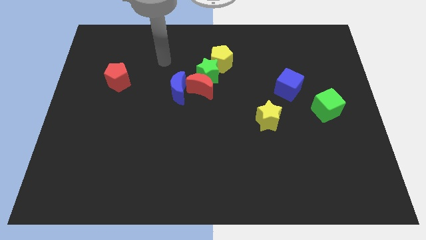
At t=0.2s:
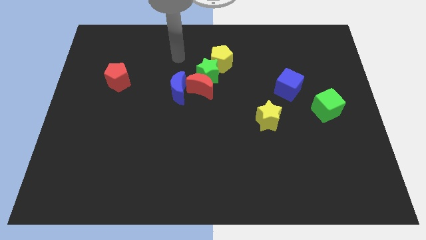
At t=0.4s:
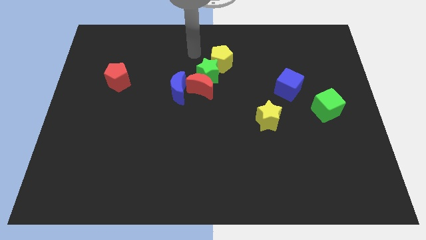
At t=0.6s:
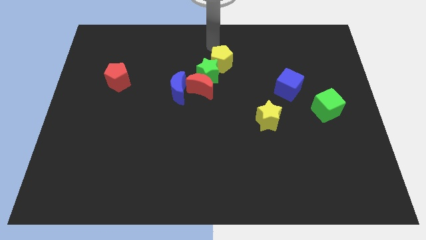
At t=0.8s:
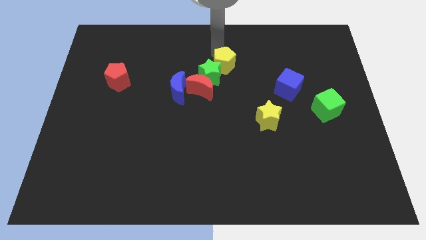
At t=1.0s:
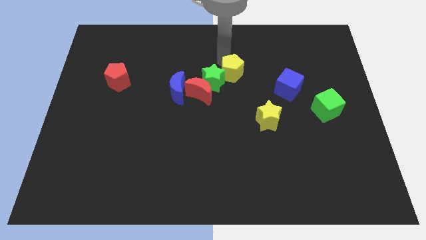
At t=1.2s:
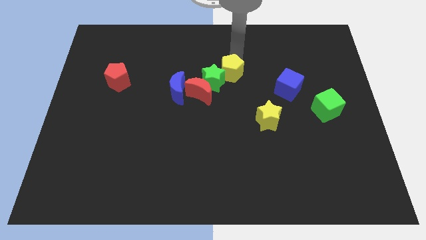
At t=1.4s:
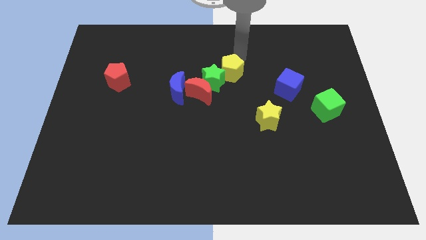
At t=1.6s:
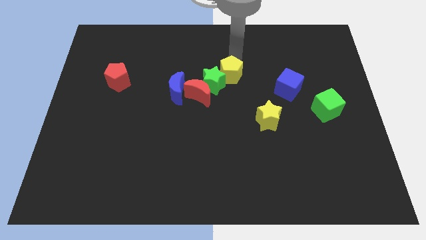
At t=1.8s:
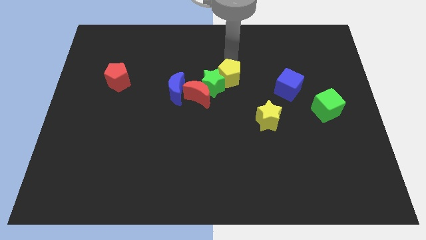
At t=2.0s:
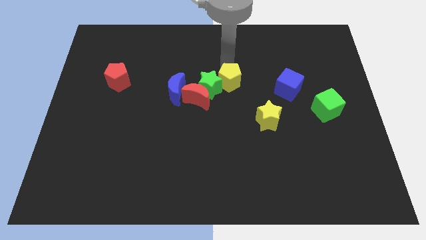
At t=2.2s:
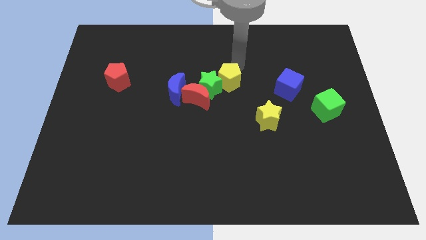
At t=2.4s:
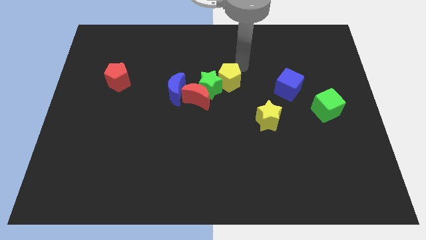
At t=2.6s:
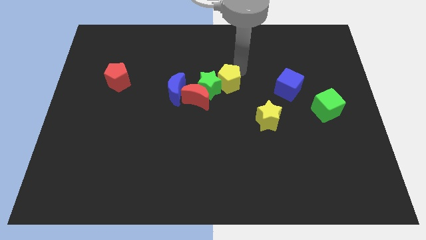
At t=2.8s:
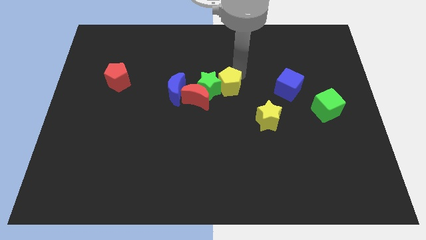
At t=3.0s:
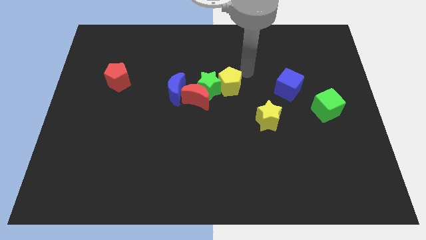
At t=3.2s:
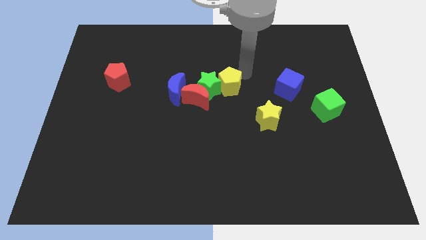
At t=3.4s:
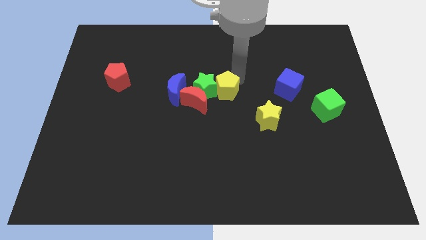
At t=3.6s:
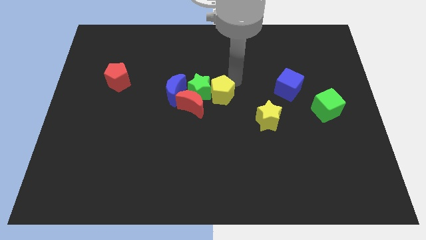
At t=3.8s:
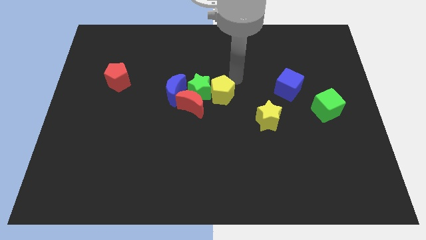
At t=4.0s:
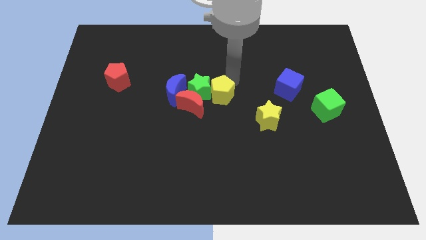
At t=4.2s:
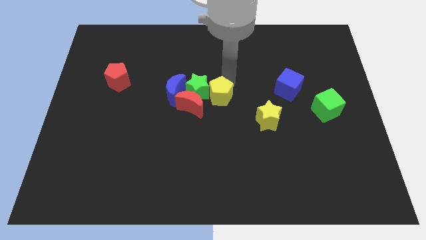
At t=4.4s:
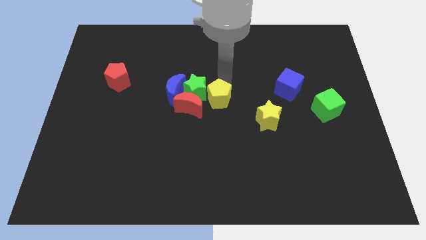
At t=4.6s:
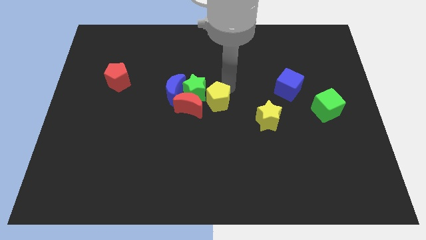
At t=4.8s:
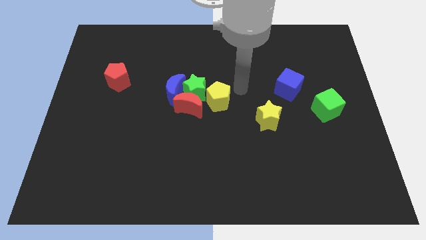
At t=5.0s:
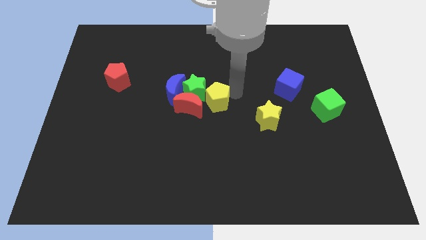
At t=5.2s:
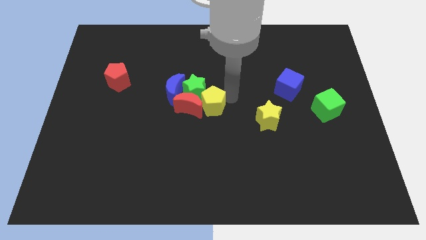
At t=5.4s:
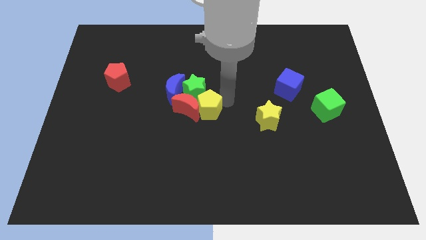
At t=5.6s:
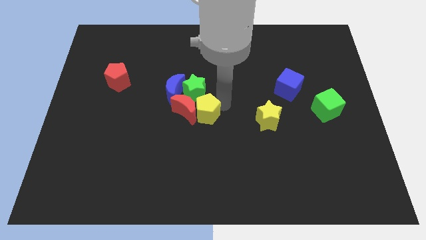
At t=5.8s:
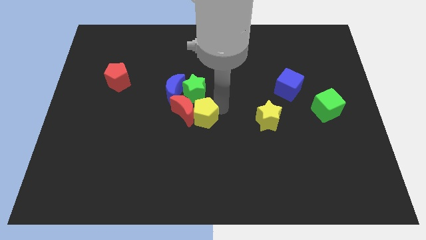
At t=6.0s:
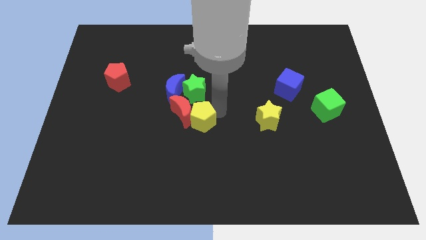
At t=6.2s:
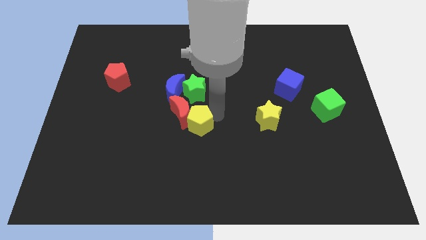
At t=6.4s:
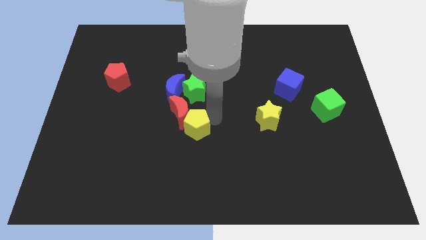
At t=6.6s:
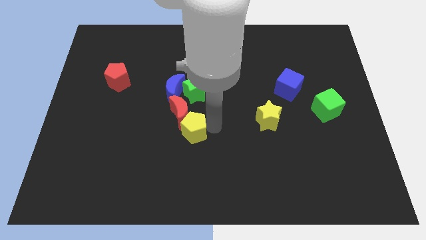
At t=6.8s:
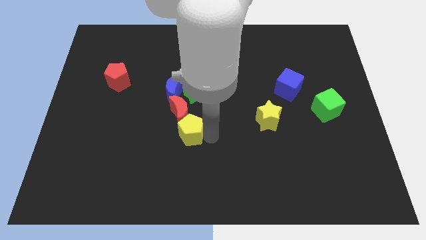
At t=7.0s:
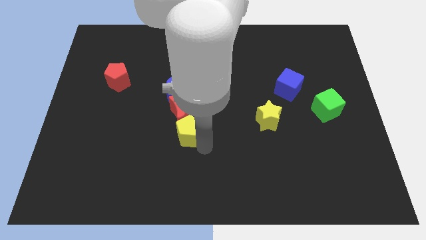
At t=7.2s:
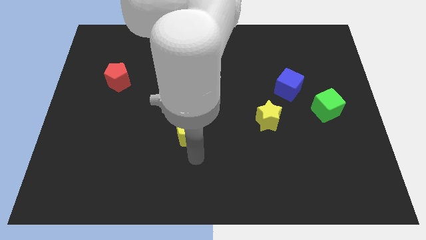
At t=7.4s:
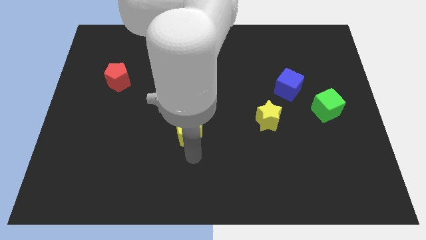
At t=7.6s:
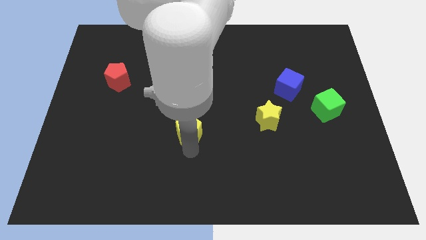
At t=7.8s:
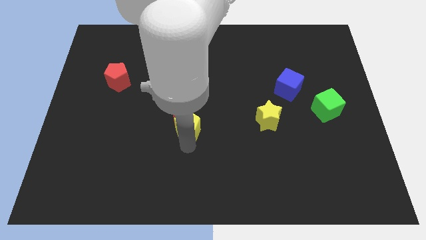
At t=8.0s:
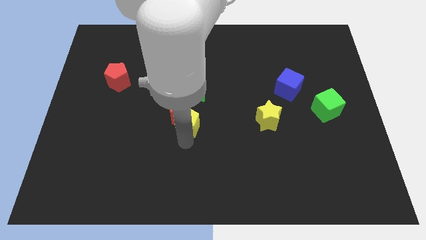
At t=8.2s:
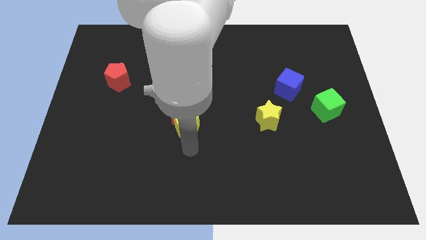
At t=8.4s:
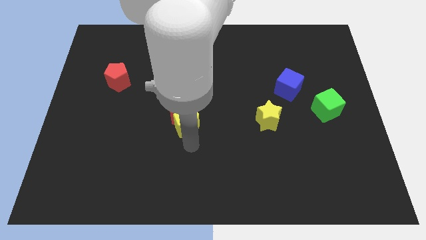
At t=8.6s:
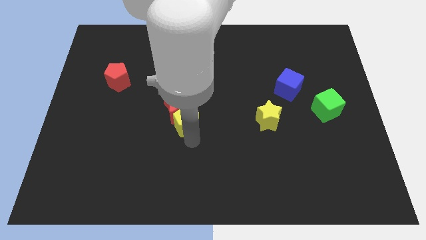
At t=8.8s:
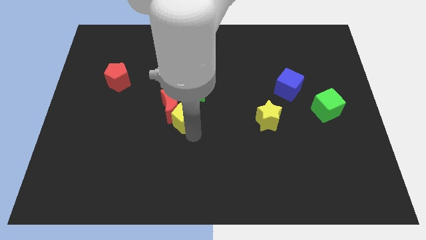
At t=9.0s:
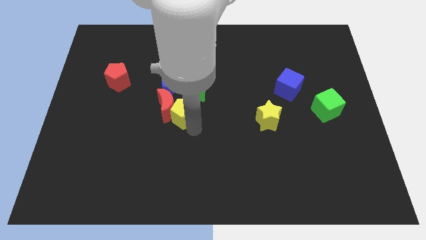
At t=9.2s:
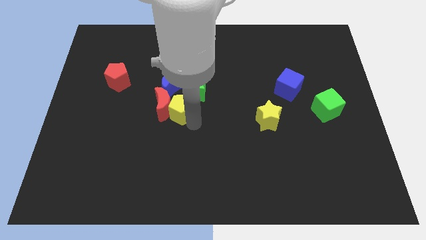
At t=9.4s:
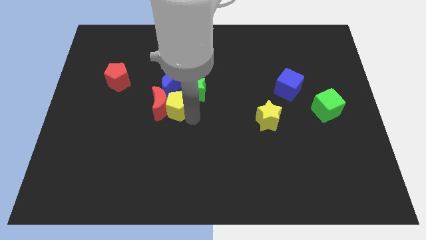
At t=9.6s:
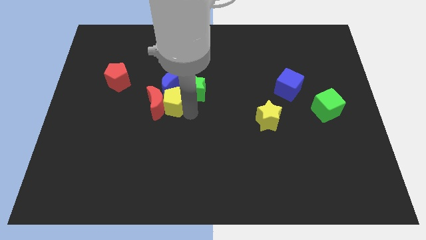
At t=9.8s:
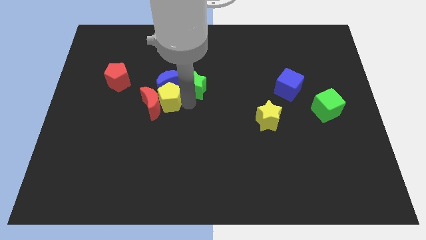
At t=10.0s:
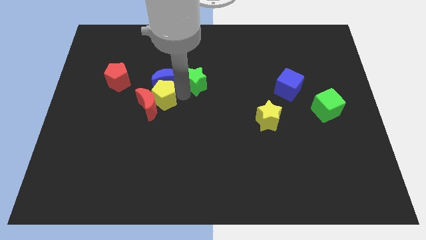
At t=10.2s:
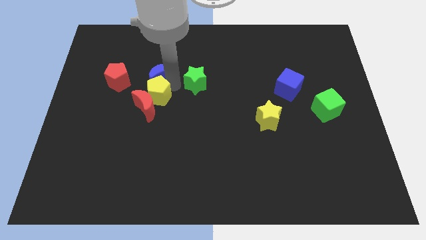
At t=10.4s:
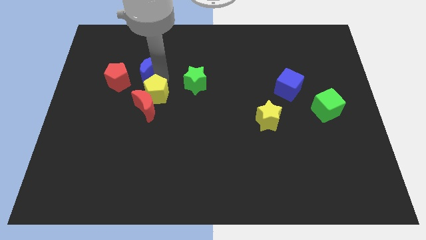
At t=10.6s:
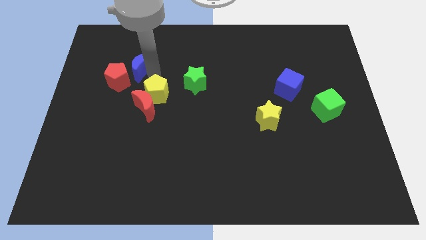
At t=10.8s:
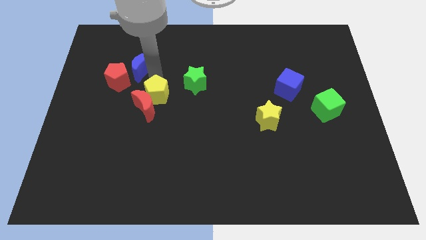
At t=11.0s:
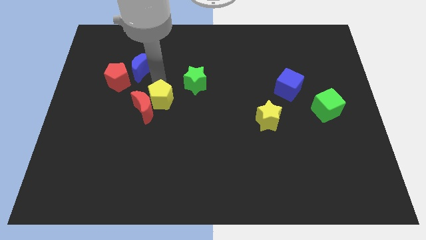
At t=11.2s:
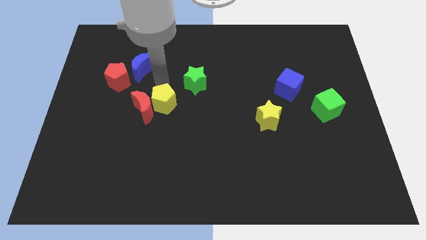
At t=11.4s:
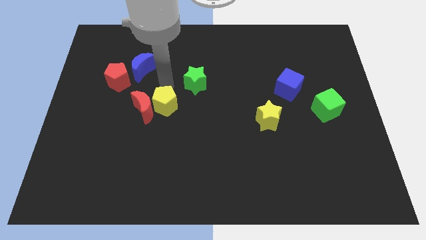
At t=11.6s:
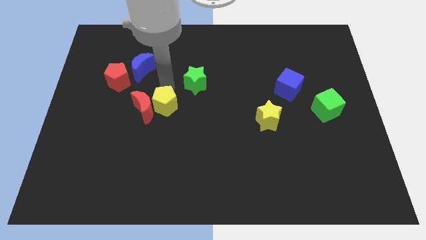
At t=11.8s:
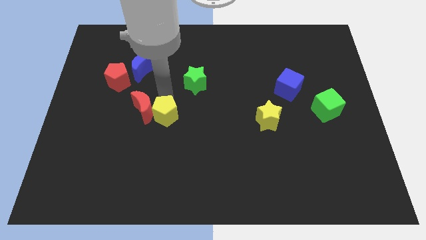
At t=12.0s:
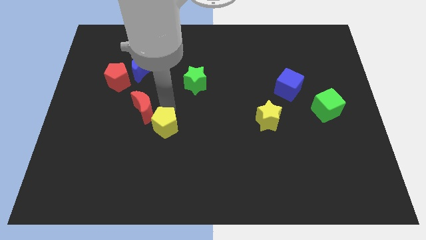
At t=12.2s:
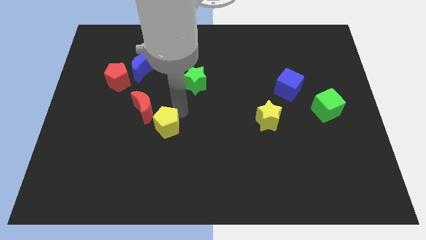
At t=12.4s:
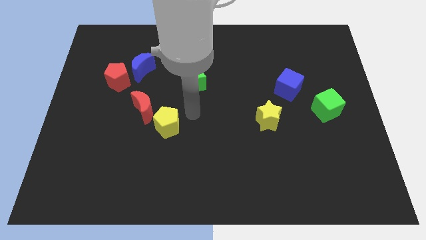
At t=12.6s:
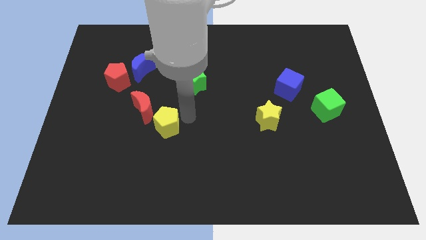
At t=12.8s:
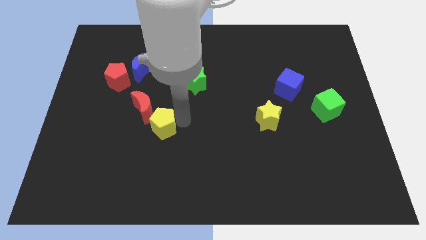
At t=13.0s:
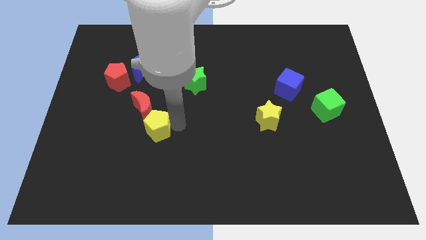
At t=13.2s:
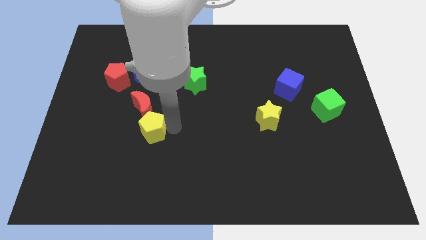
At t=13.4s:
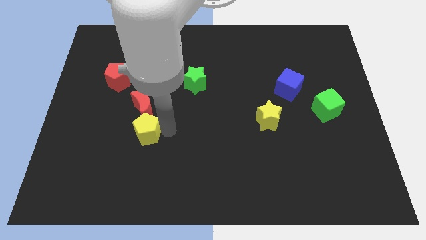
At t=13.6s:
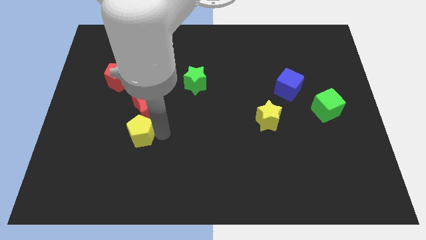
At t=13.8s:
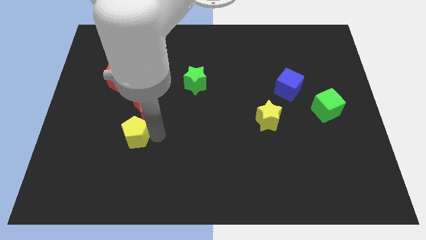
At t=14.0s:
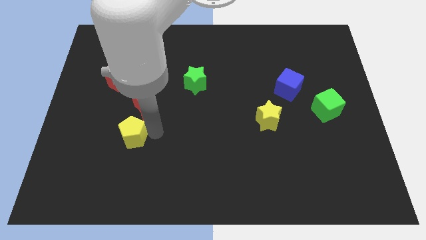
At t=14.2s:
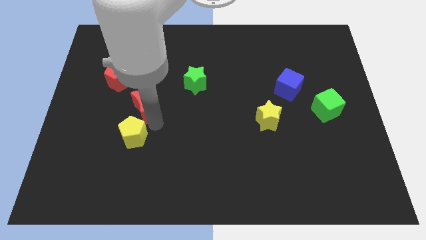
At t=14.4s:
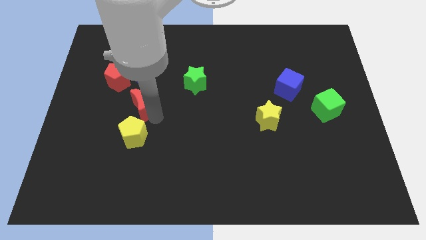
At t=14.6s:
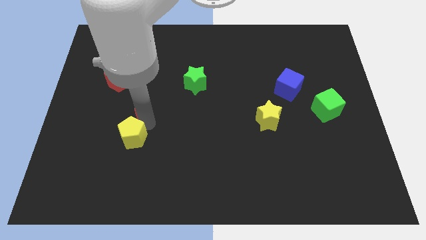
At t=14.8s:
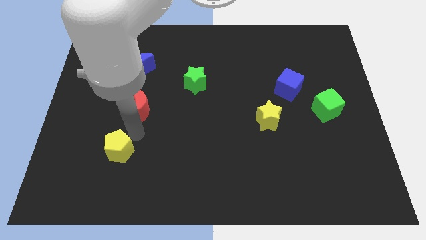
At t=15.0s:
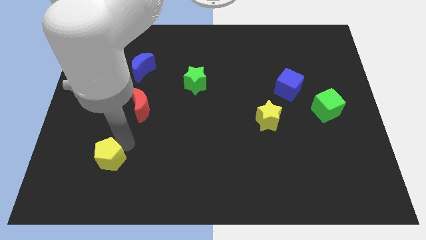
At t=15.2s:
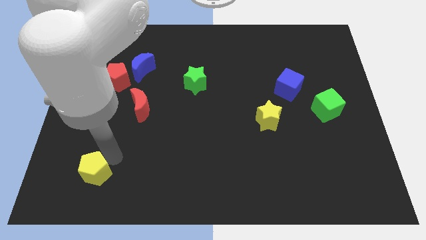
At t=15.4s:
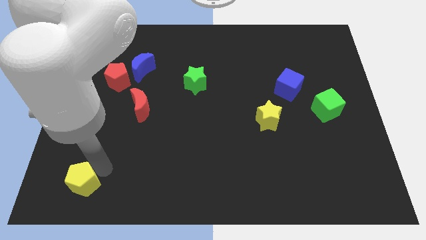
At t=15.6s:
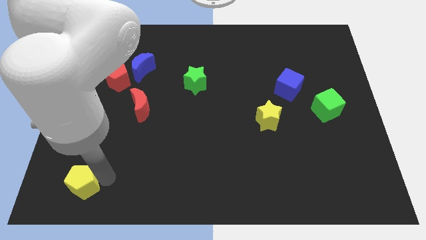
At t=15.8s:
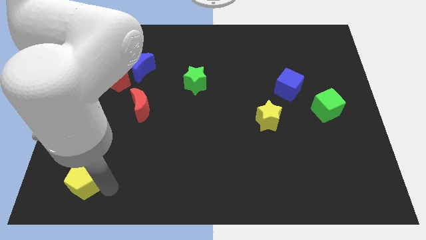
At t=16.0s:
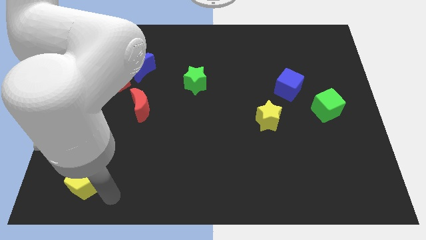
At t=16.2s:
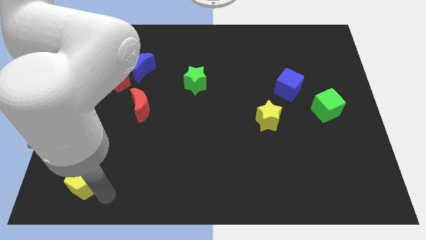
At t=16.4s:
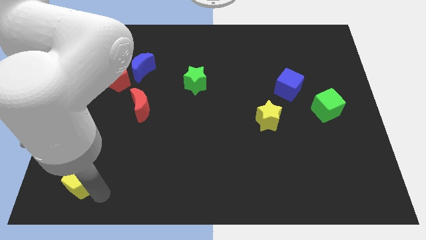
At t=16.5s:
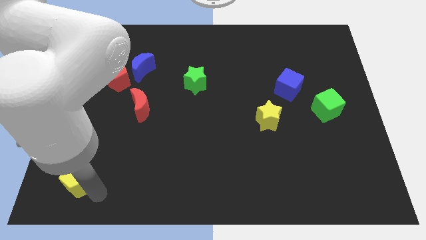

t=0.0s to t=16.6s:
move the yellow pentagon to the bottom left corner
